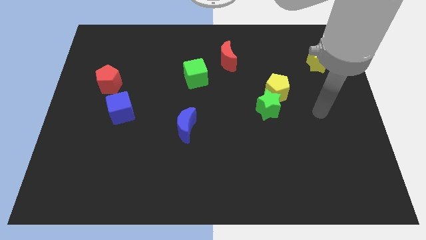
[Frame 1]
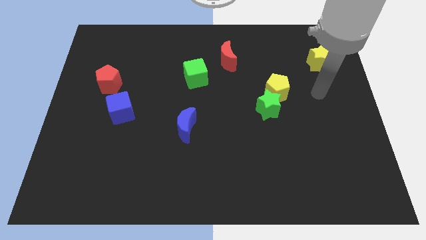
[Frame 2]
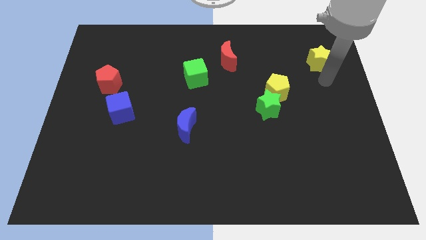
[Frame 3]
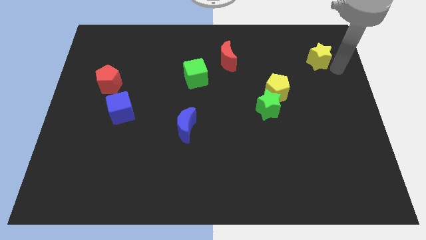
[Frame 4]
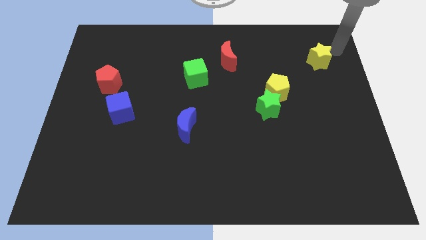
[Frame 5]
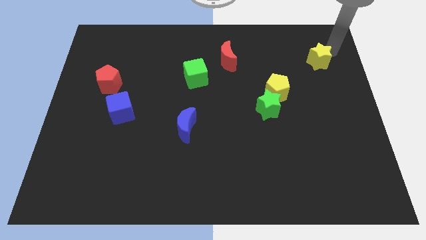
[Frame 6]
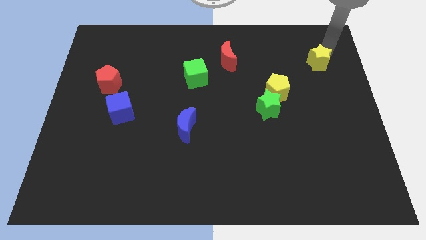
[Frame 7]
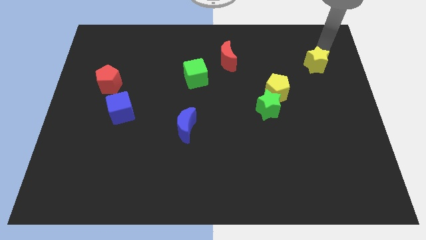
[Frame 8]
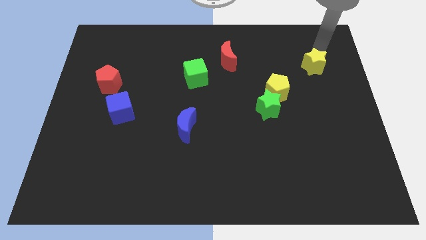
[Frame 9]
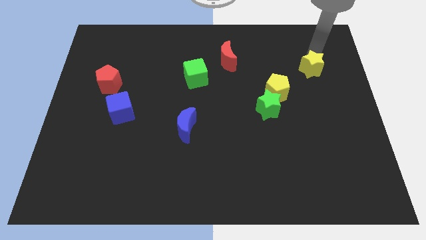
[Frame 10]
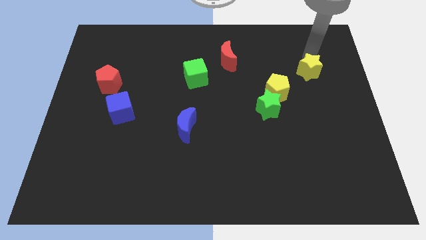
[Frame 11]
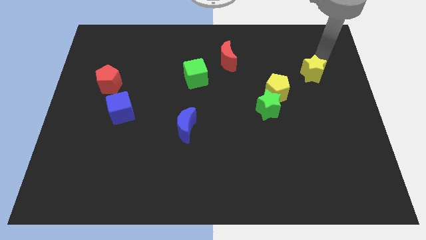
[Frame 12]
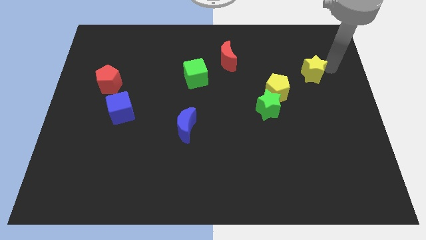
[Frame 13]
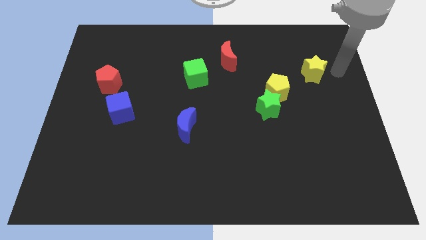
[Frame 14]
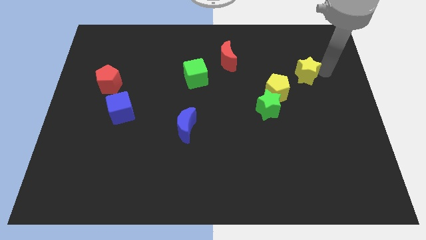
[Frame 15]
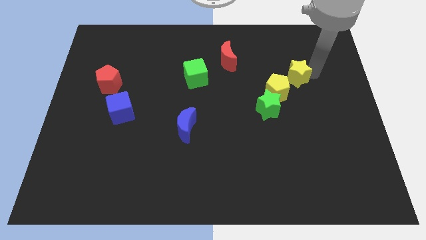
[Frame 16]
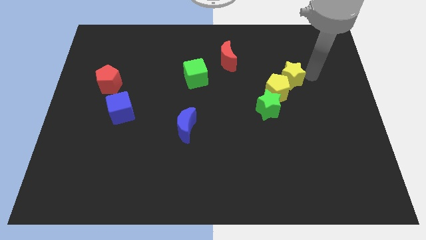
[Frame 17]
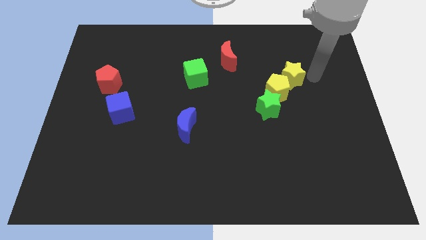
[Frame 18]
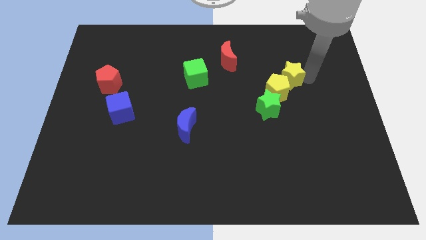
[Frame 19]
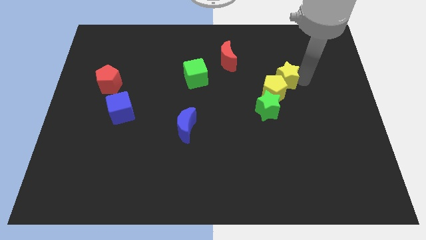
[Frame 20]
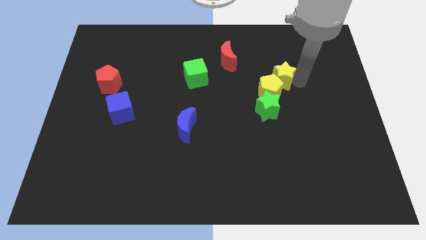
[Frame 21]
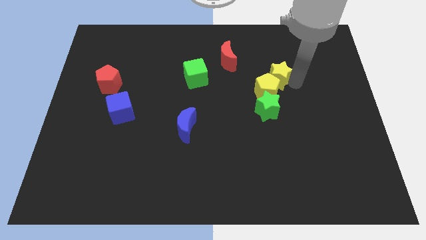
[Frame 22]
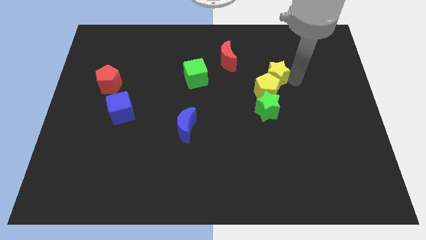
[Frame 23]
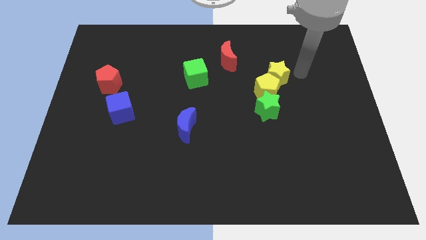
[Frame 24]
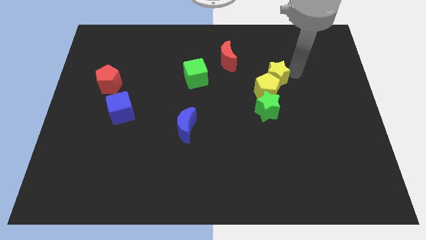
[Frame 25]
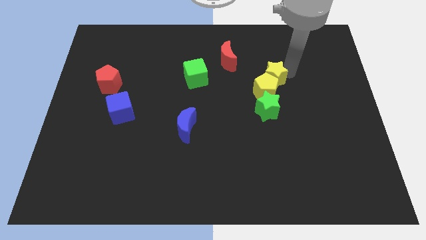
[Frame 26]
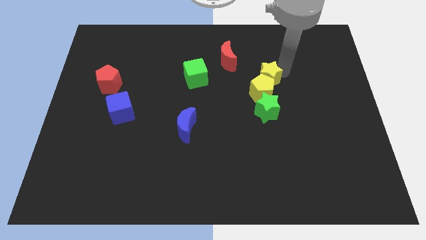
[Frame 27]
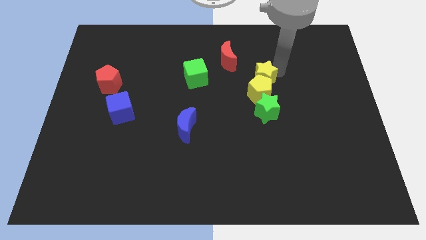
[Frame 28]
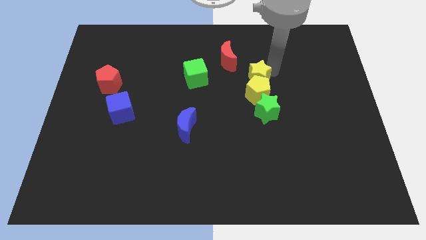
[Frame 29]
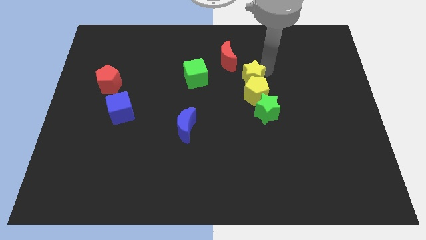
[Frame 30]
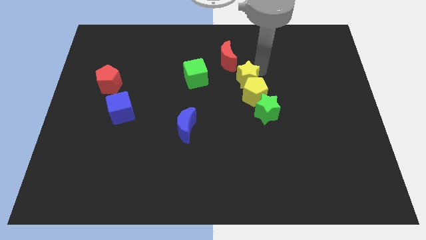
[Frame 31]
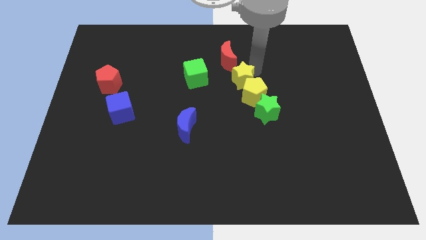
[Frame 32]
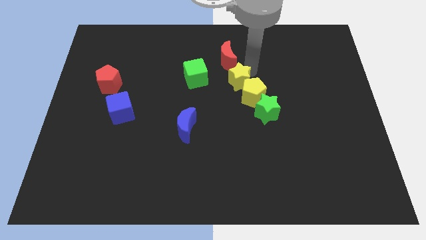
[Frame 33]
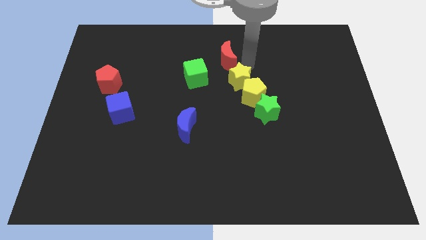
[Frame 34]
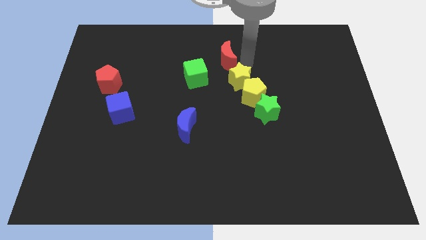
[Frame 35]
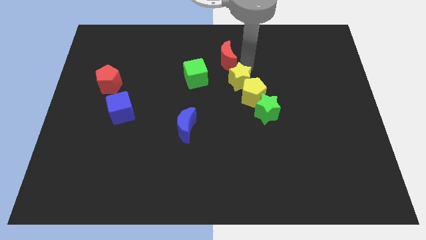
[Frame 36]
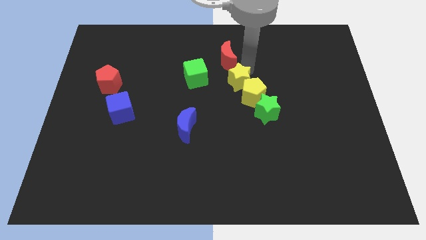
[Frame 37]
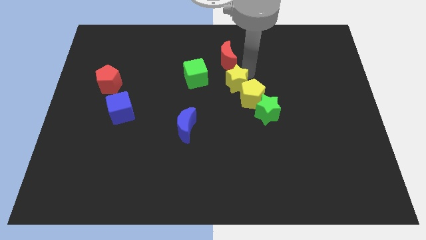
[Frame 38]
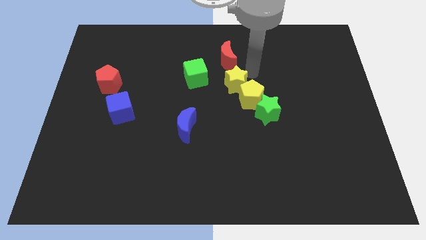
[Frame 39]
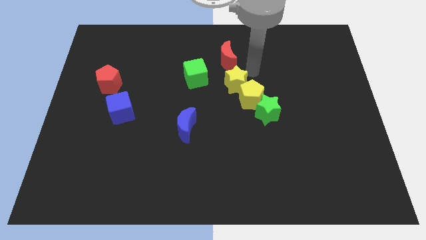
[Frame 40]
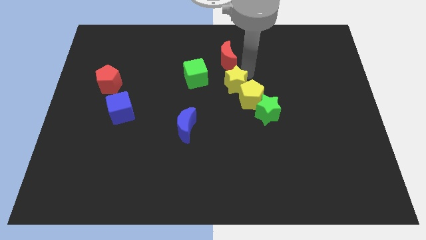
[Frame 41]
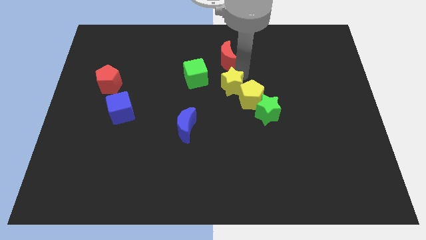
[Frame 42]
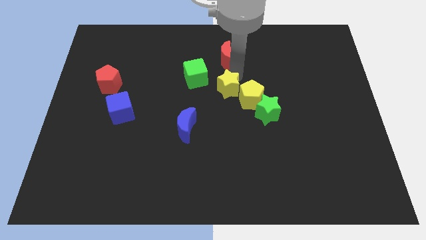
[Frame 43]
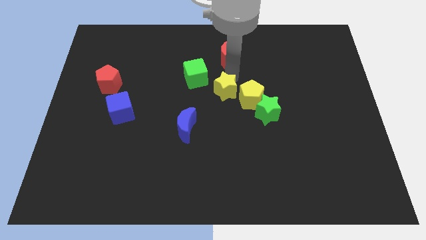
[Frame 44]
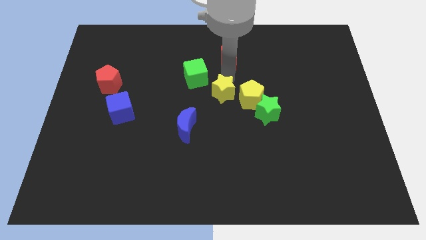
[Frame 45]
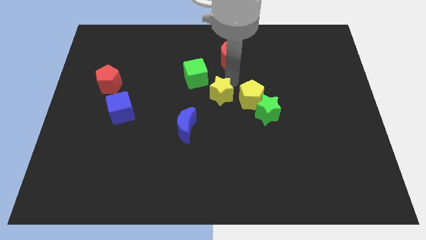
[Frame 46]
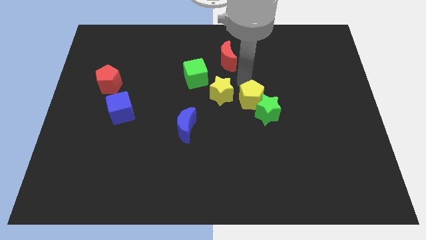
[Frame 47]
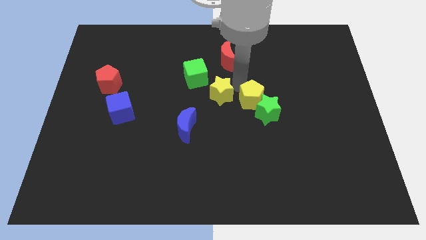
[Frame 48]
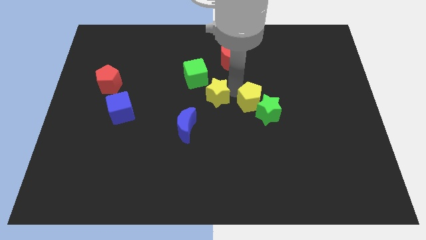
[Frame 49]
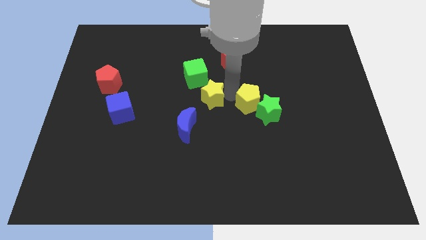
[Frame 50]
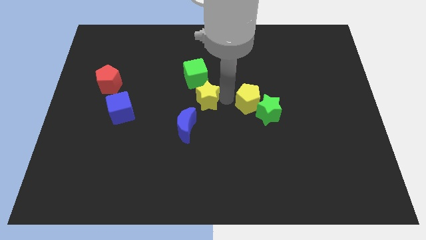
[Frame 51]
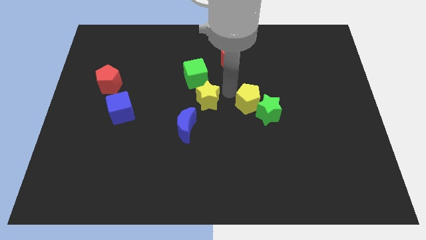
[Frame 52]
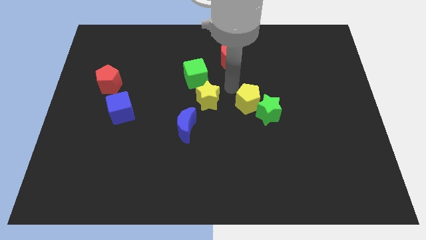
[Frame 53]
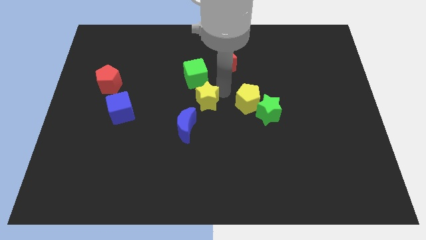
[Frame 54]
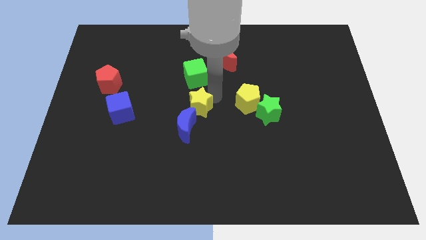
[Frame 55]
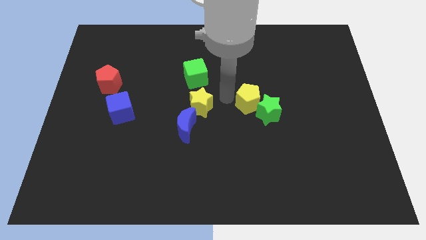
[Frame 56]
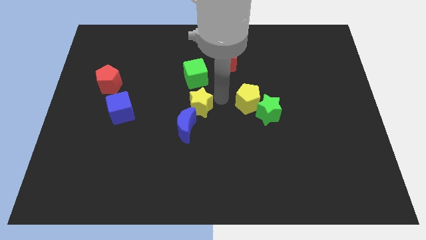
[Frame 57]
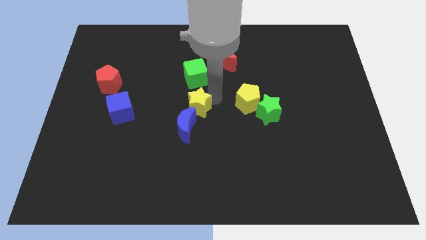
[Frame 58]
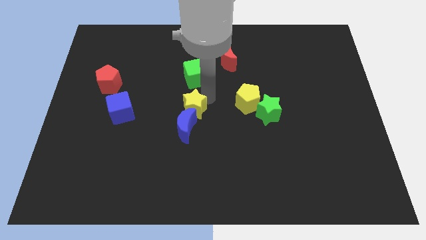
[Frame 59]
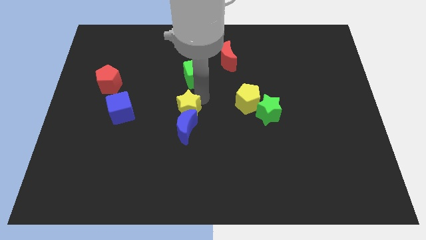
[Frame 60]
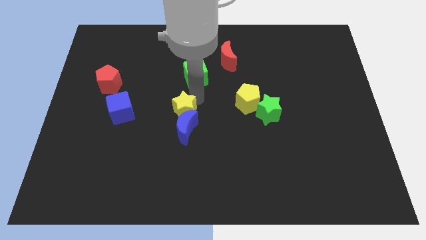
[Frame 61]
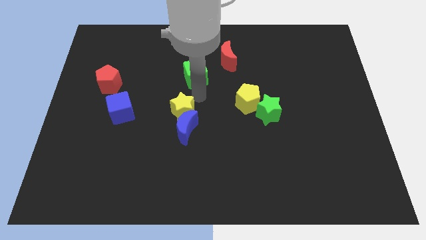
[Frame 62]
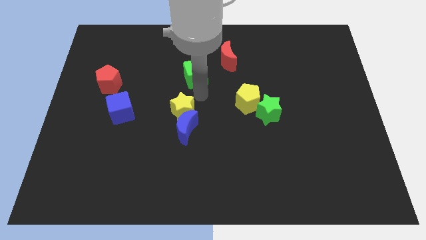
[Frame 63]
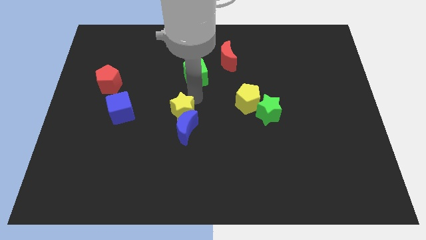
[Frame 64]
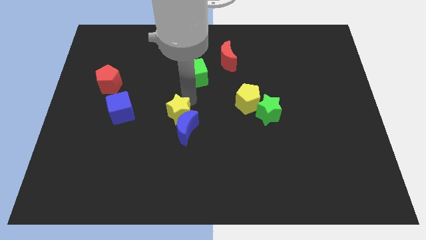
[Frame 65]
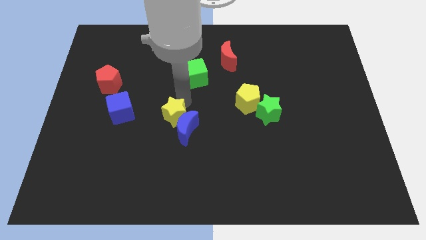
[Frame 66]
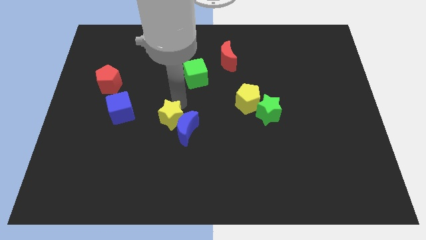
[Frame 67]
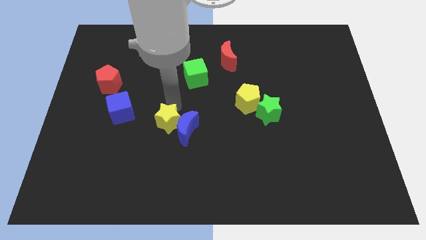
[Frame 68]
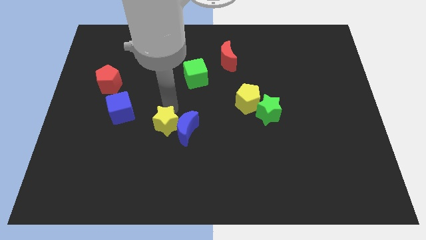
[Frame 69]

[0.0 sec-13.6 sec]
slide the yellow star to the bottom left side of the blue moon

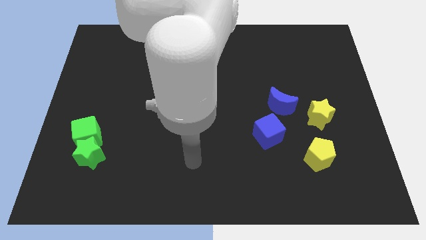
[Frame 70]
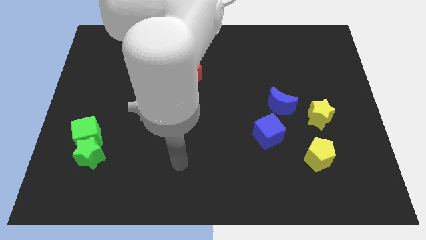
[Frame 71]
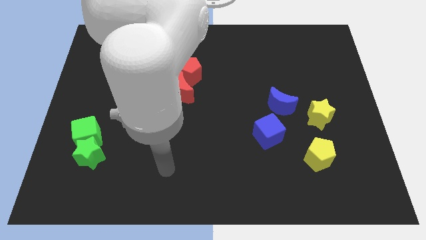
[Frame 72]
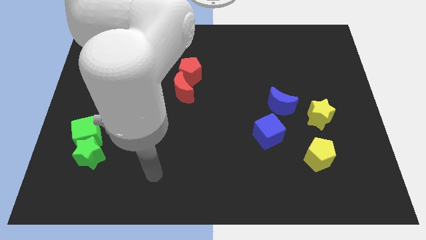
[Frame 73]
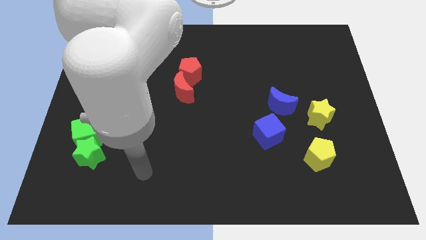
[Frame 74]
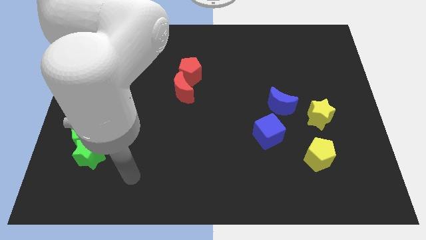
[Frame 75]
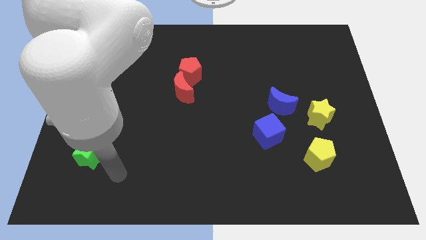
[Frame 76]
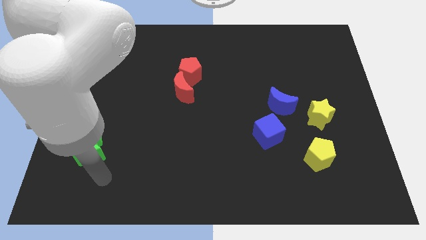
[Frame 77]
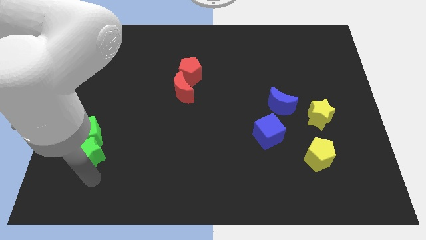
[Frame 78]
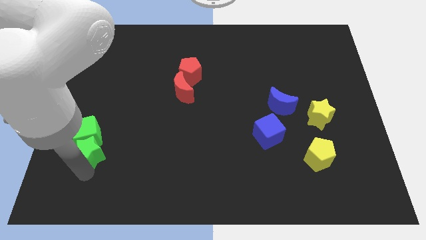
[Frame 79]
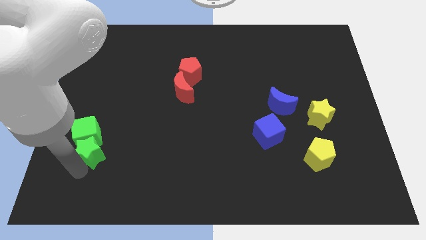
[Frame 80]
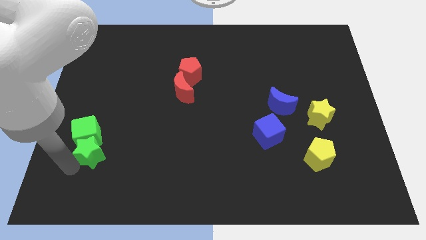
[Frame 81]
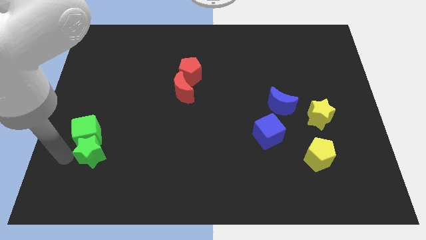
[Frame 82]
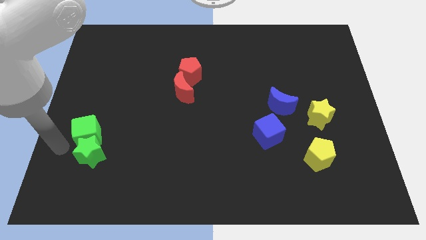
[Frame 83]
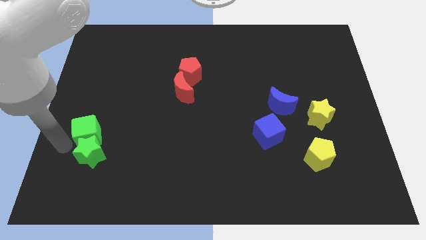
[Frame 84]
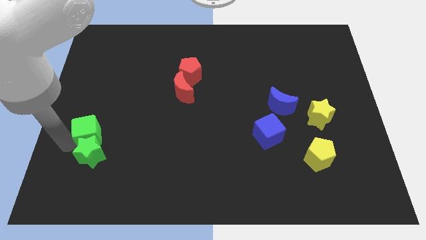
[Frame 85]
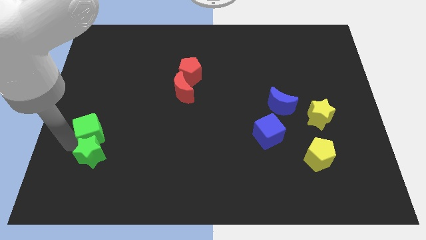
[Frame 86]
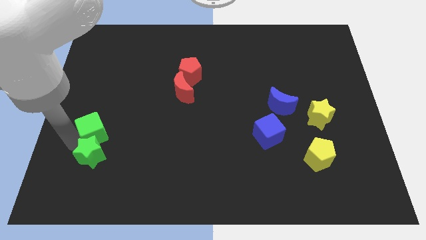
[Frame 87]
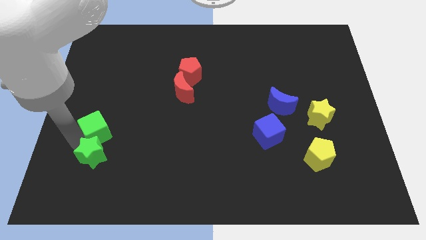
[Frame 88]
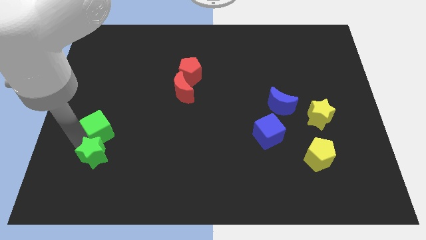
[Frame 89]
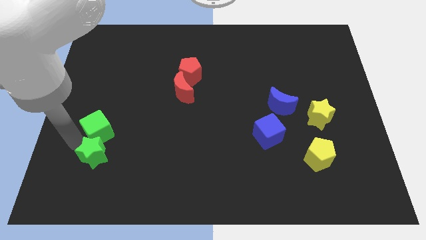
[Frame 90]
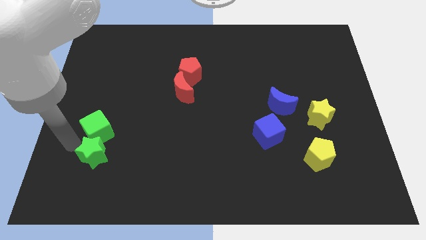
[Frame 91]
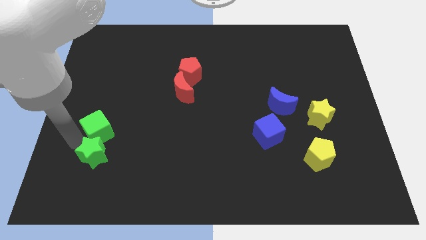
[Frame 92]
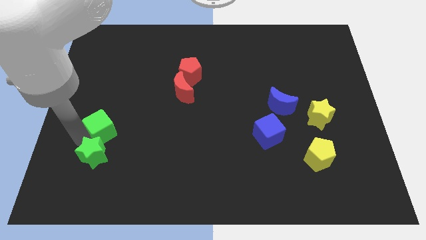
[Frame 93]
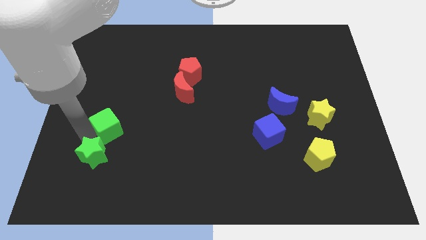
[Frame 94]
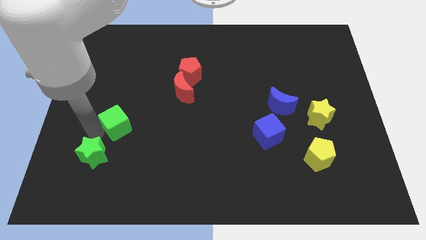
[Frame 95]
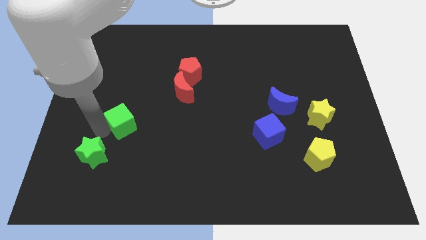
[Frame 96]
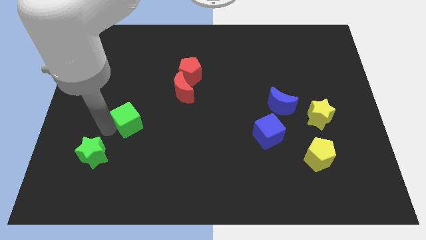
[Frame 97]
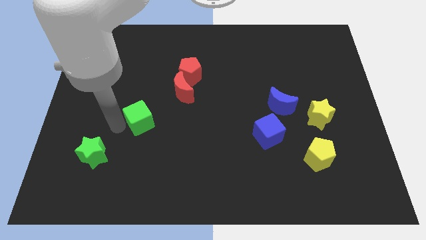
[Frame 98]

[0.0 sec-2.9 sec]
put the green cube to the bottom left of the red moon
